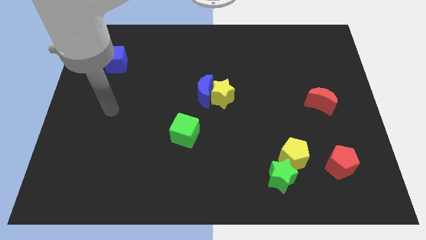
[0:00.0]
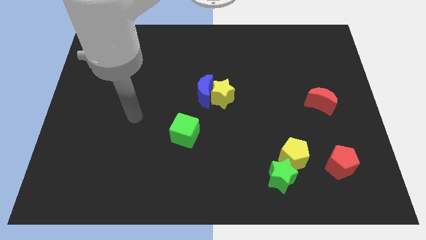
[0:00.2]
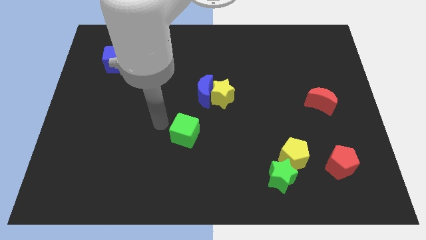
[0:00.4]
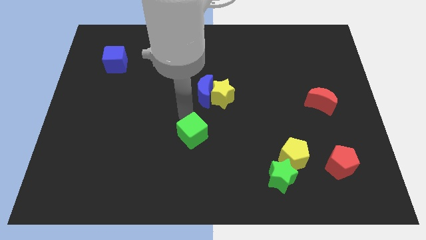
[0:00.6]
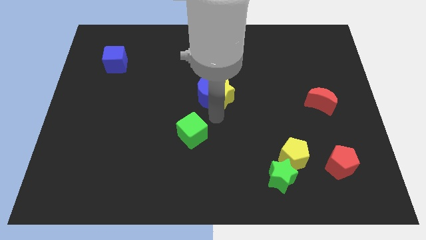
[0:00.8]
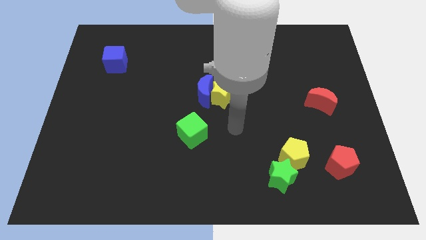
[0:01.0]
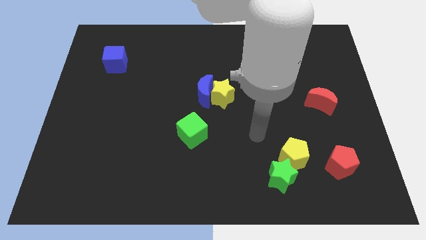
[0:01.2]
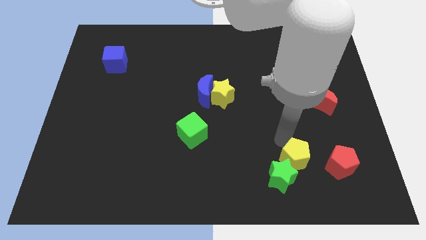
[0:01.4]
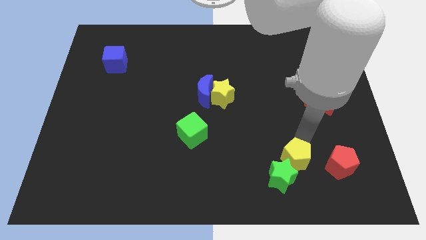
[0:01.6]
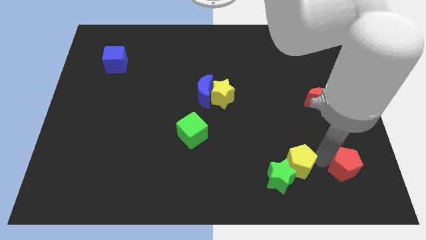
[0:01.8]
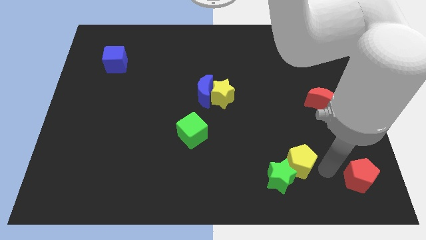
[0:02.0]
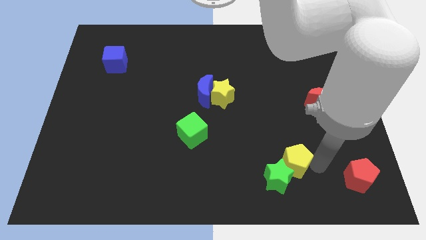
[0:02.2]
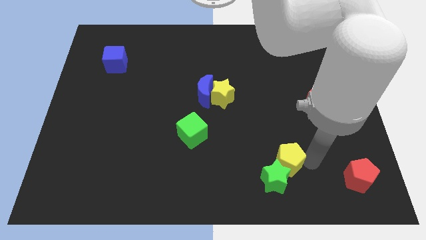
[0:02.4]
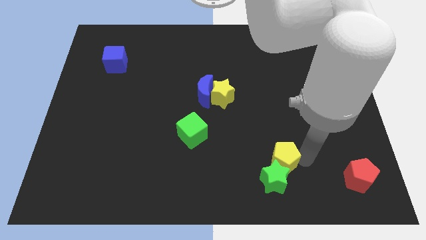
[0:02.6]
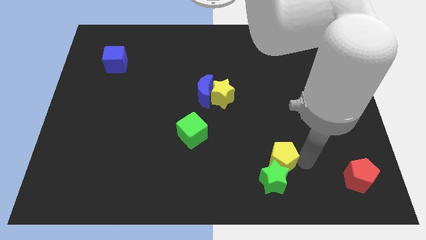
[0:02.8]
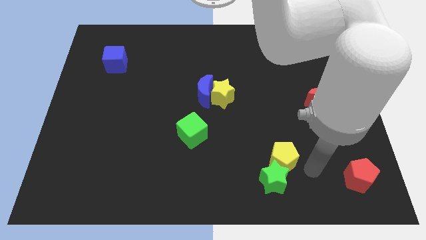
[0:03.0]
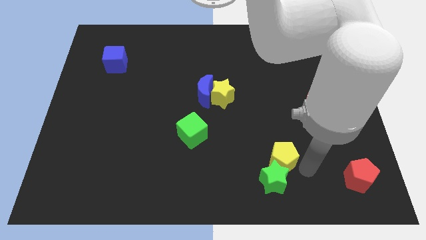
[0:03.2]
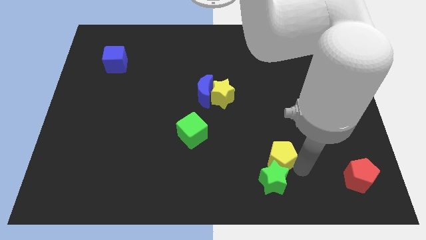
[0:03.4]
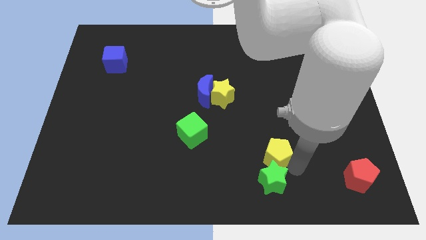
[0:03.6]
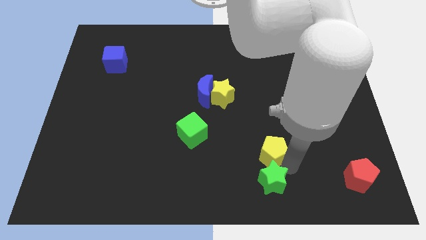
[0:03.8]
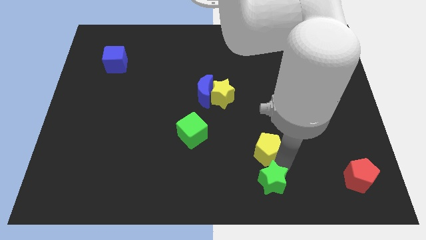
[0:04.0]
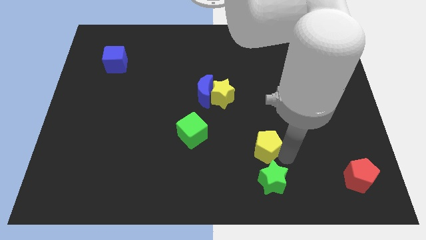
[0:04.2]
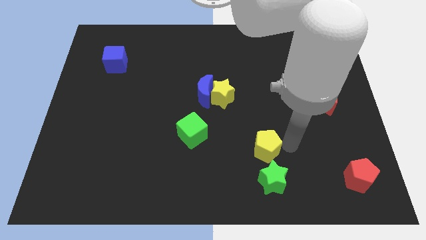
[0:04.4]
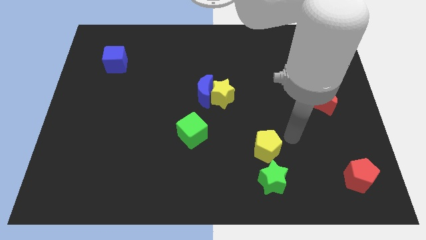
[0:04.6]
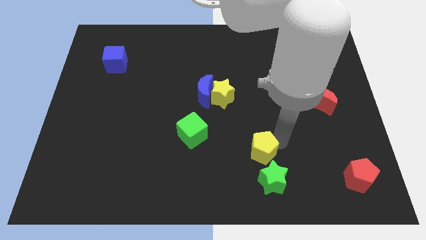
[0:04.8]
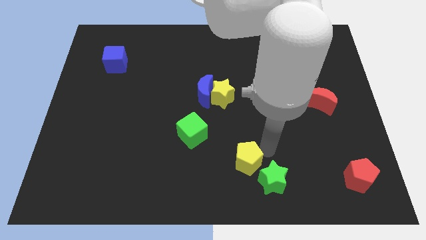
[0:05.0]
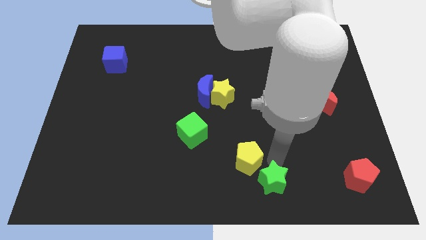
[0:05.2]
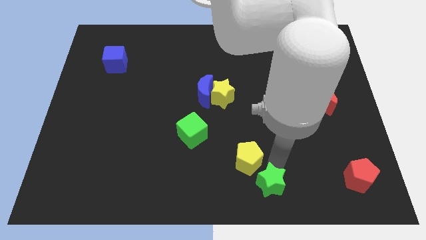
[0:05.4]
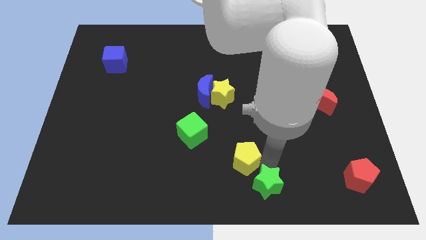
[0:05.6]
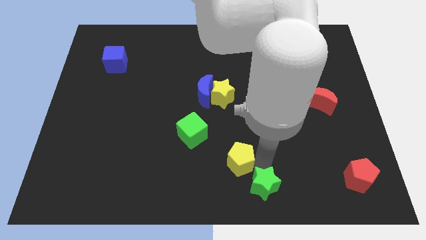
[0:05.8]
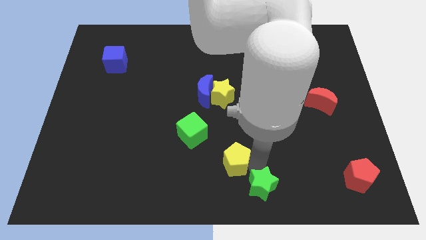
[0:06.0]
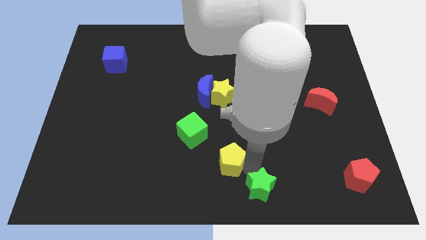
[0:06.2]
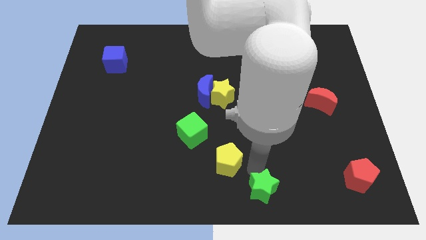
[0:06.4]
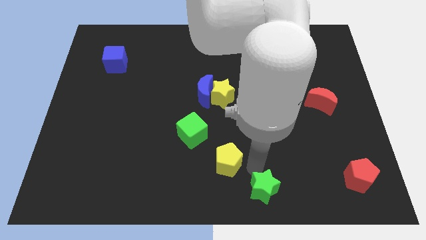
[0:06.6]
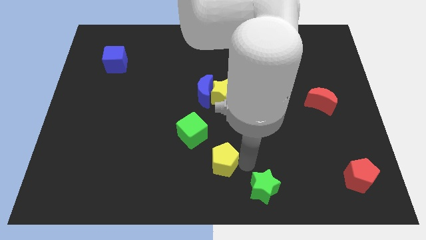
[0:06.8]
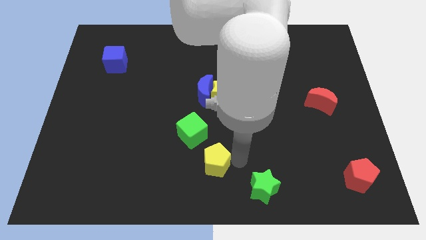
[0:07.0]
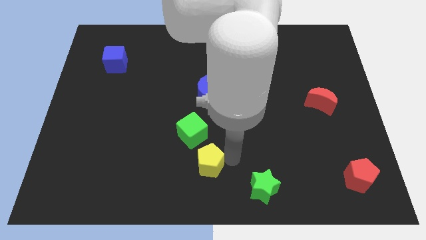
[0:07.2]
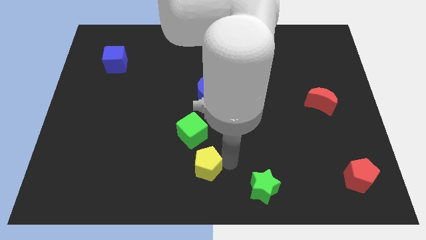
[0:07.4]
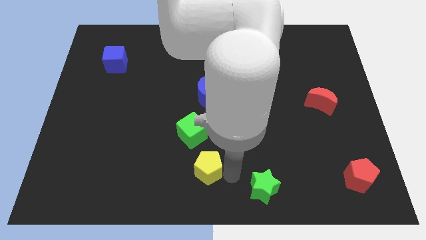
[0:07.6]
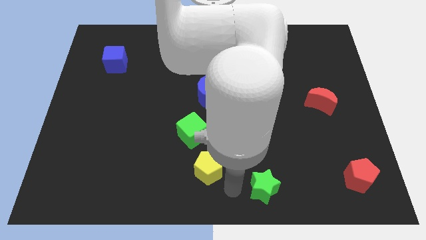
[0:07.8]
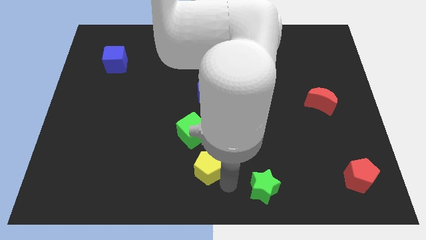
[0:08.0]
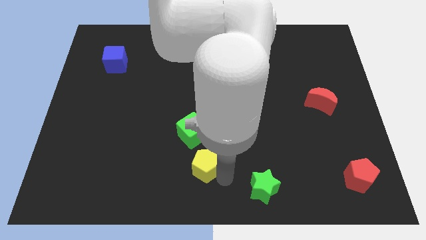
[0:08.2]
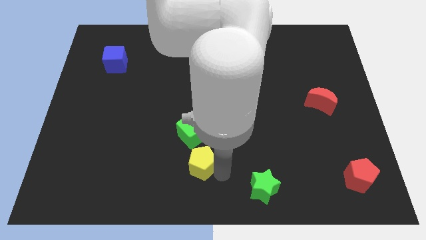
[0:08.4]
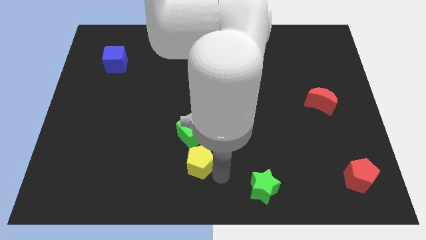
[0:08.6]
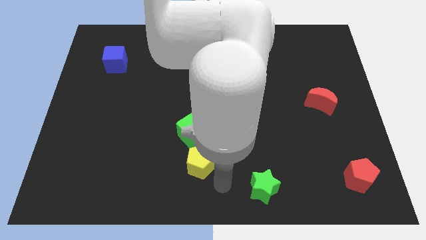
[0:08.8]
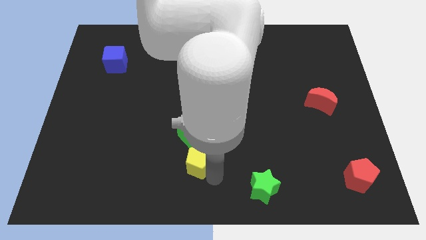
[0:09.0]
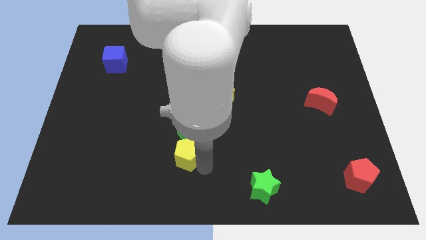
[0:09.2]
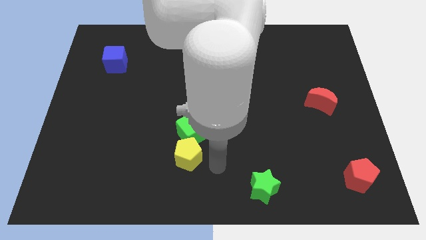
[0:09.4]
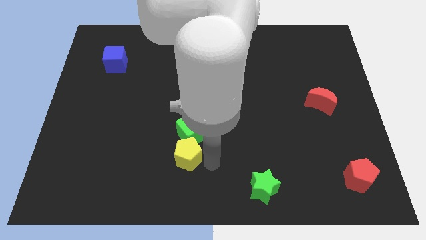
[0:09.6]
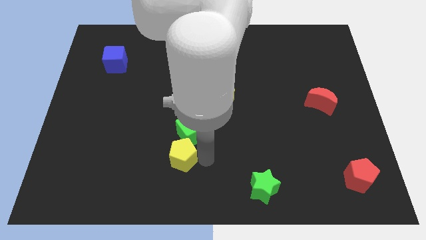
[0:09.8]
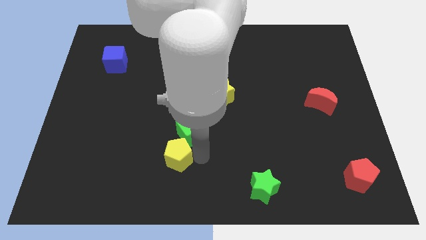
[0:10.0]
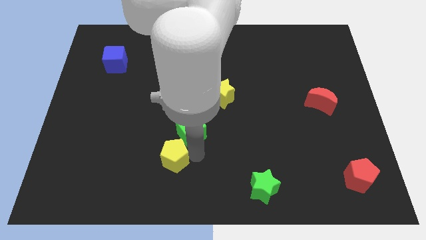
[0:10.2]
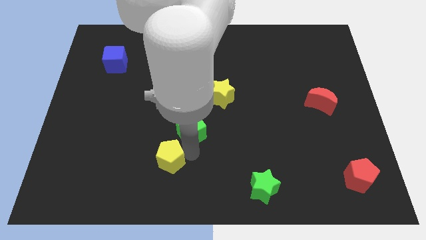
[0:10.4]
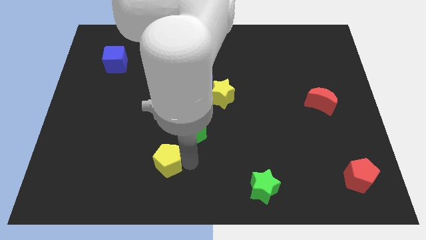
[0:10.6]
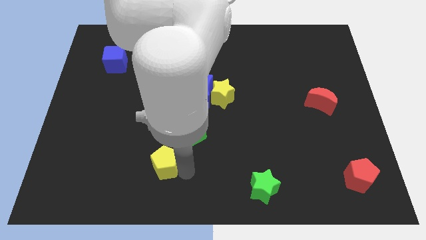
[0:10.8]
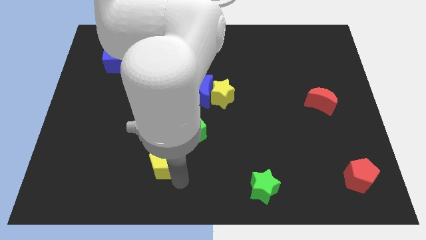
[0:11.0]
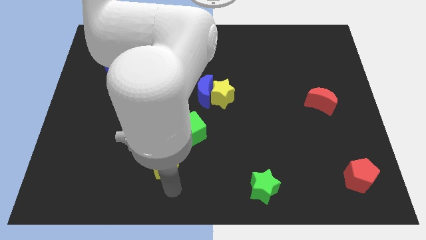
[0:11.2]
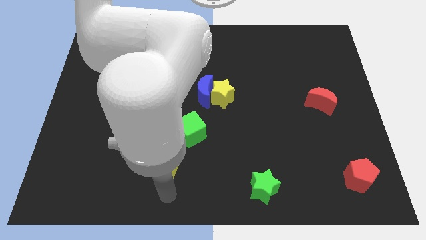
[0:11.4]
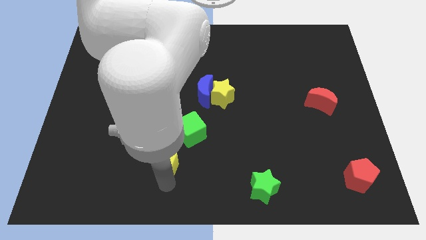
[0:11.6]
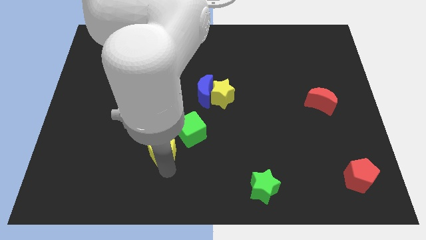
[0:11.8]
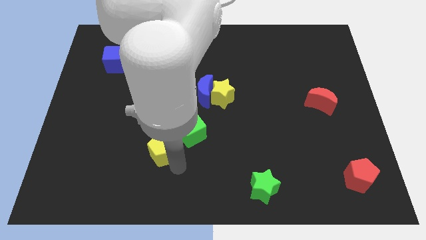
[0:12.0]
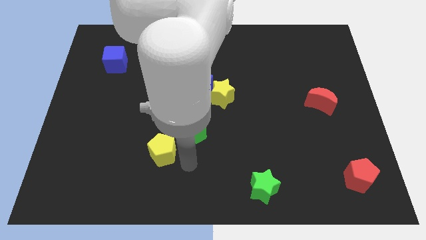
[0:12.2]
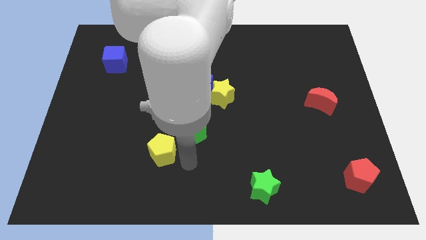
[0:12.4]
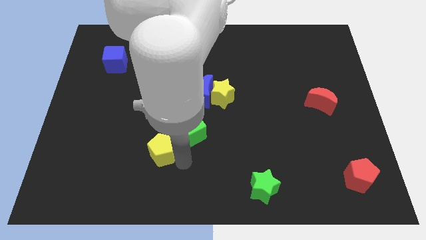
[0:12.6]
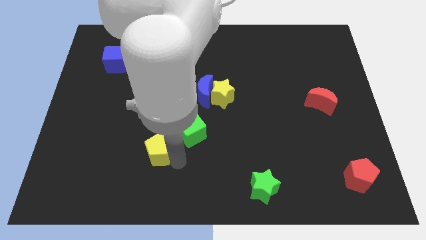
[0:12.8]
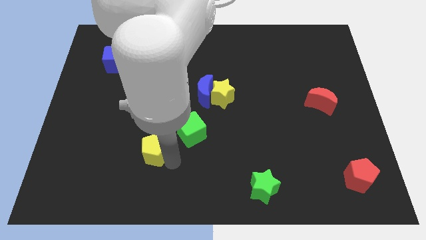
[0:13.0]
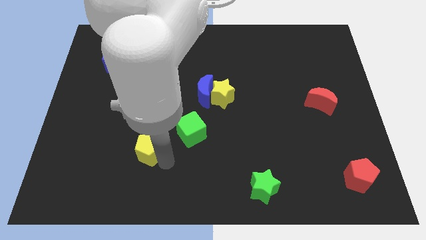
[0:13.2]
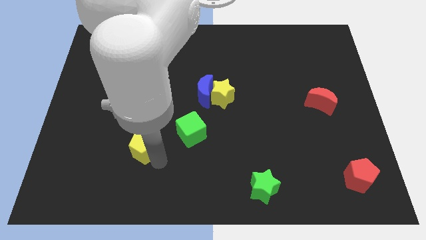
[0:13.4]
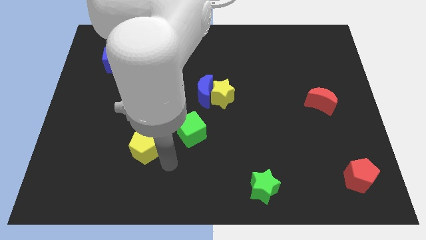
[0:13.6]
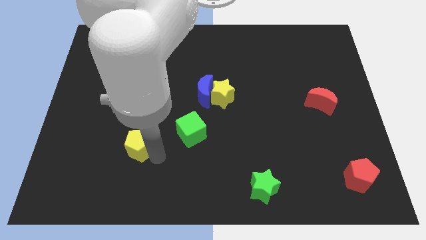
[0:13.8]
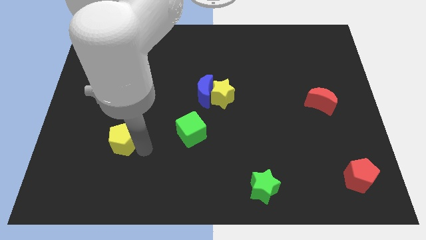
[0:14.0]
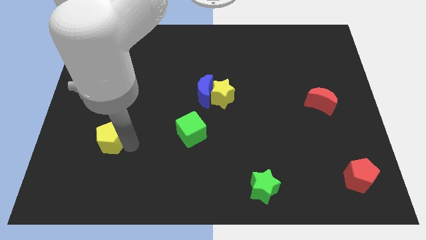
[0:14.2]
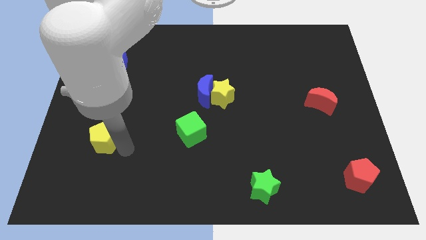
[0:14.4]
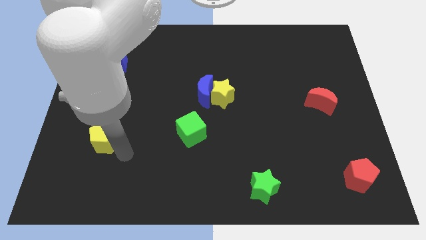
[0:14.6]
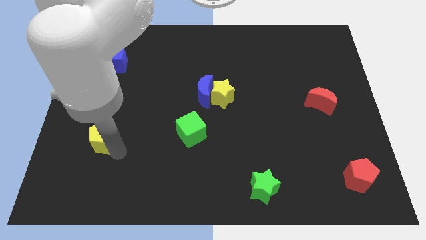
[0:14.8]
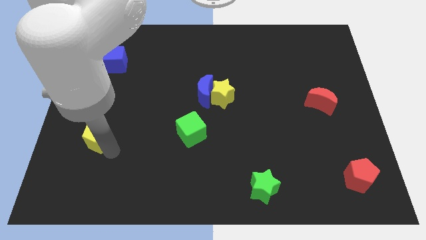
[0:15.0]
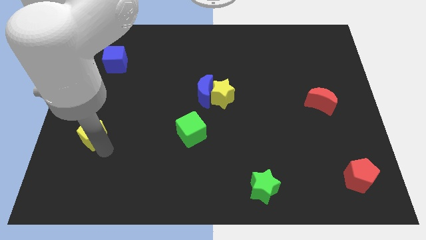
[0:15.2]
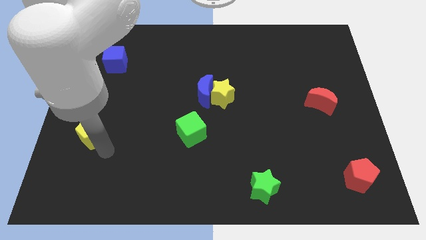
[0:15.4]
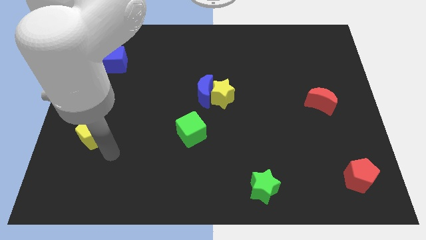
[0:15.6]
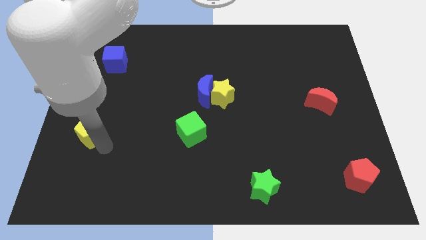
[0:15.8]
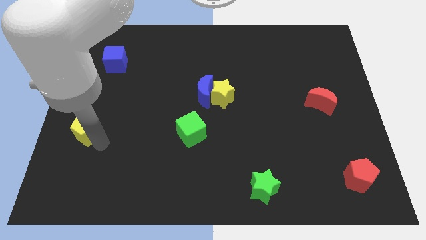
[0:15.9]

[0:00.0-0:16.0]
move the yellow pentagon to the left side
